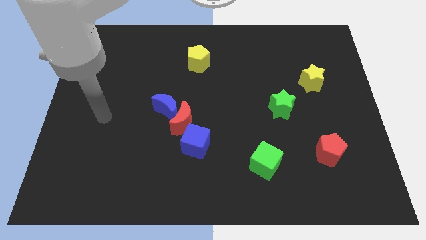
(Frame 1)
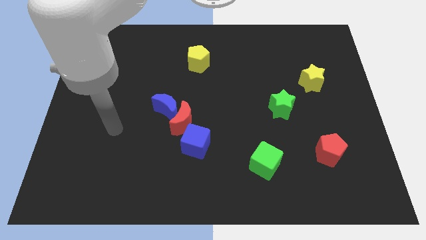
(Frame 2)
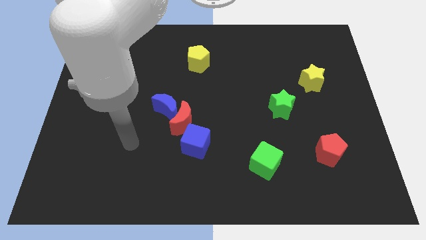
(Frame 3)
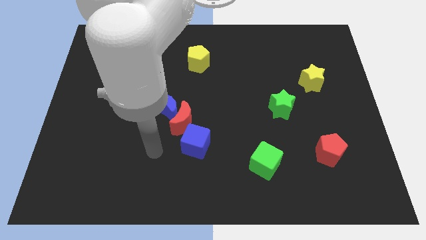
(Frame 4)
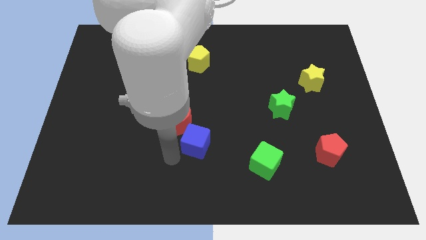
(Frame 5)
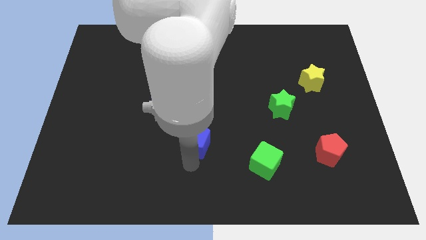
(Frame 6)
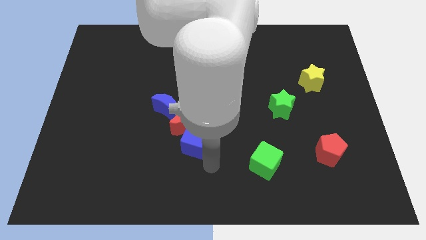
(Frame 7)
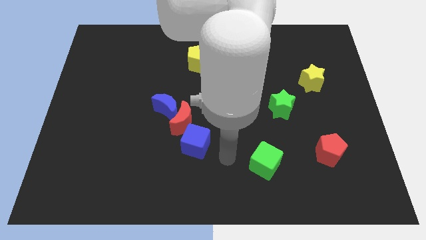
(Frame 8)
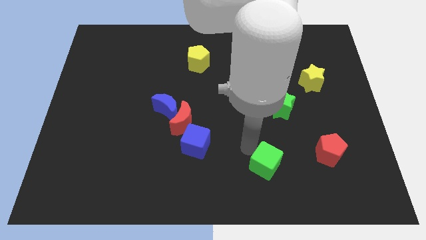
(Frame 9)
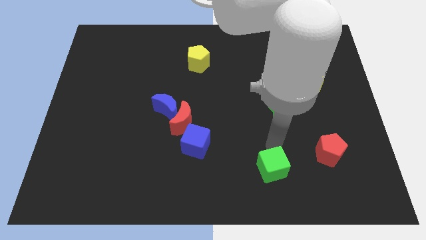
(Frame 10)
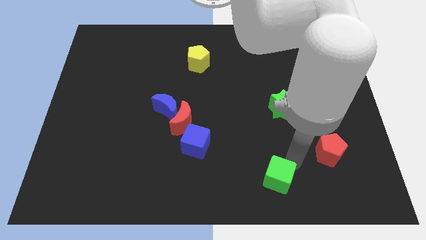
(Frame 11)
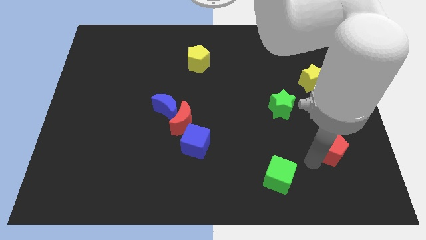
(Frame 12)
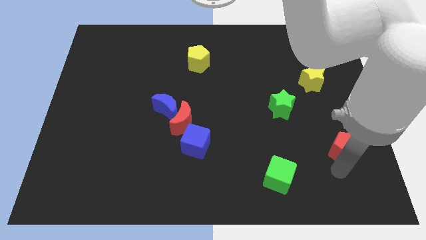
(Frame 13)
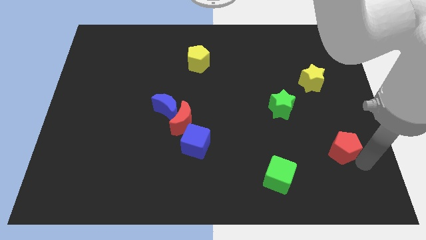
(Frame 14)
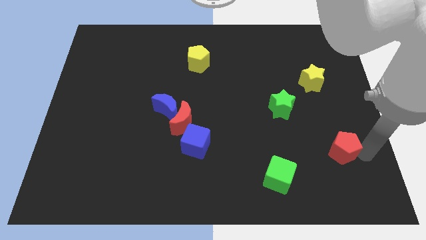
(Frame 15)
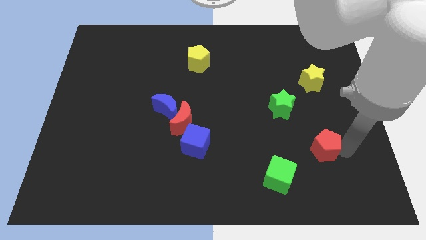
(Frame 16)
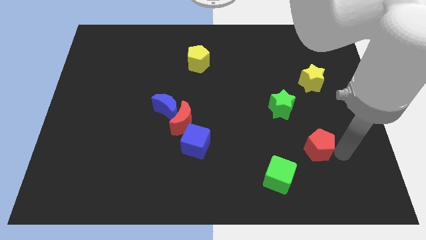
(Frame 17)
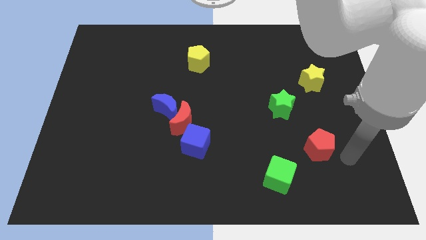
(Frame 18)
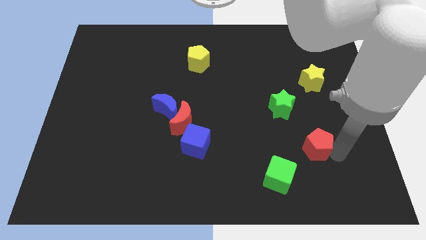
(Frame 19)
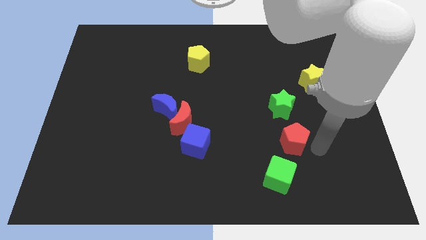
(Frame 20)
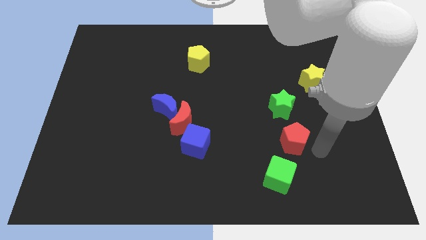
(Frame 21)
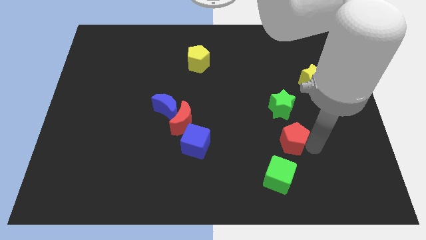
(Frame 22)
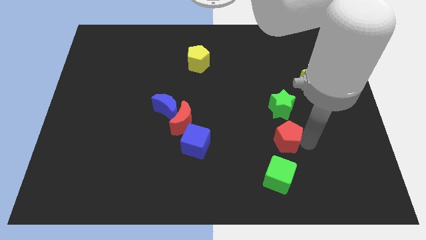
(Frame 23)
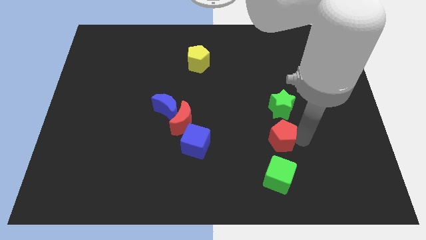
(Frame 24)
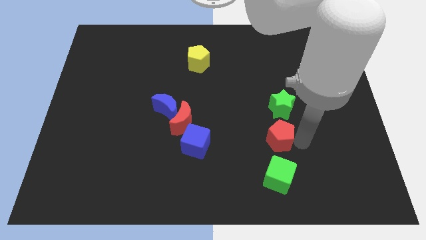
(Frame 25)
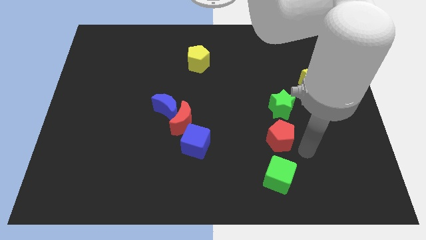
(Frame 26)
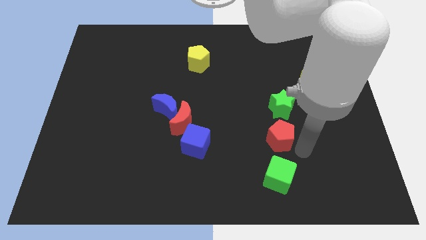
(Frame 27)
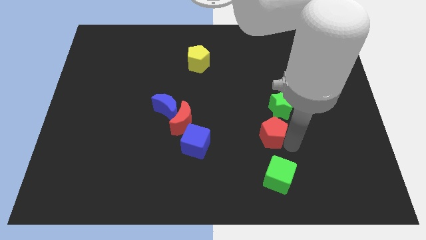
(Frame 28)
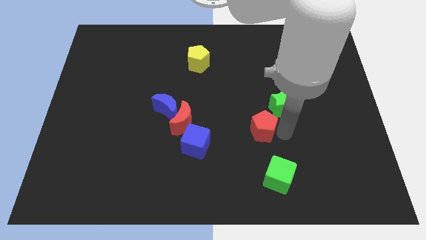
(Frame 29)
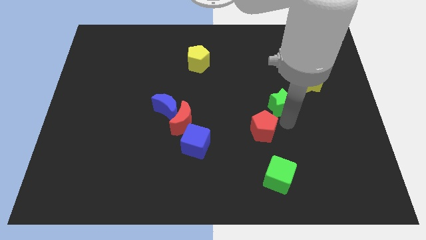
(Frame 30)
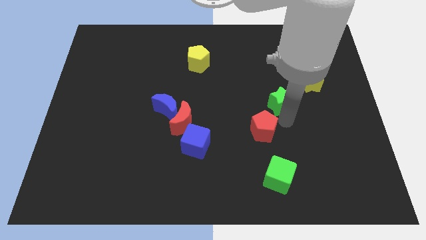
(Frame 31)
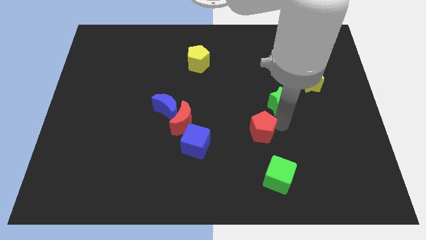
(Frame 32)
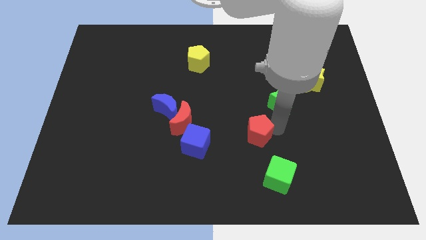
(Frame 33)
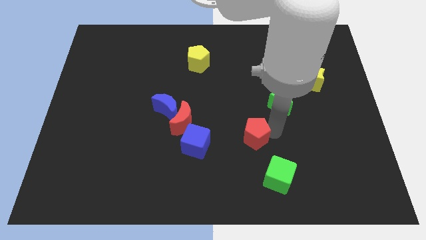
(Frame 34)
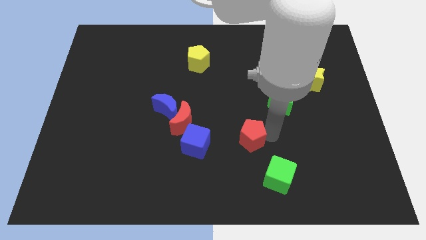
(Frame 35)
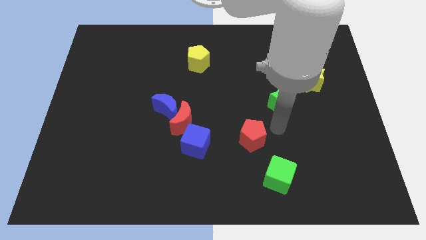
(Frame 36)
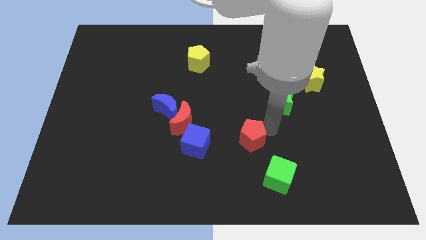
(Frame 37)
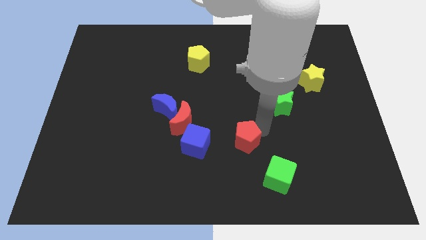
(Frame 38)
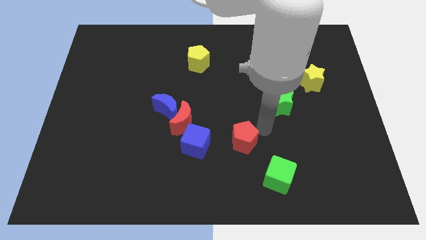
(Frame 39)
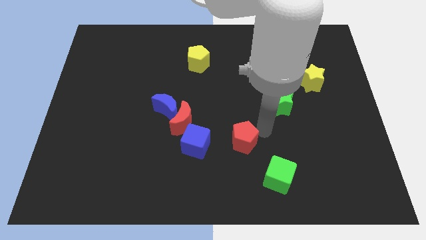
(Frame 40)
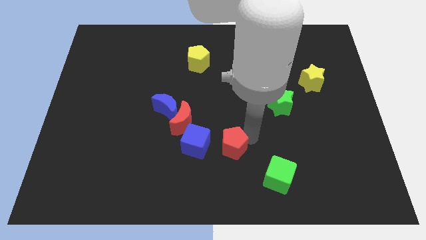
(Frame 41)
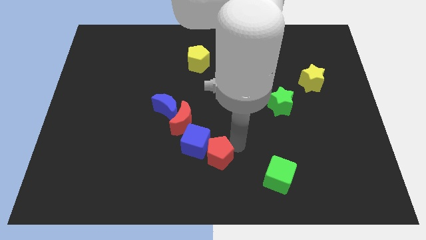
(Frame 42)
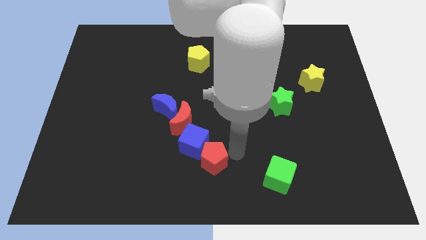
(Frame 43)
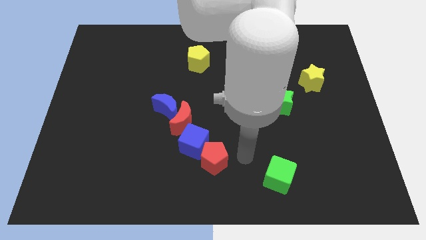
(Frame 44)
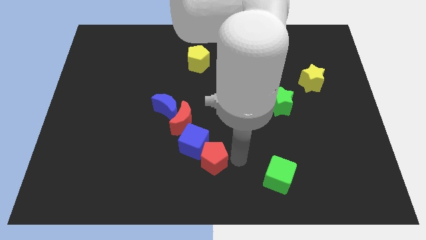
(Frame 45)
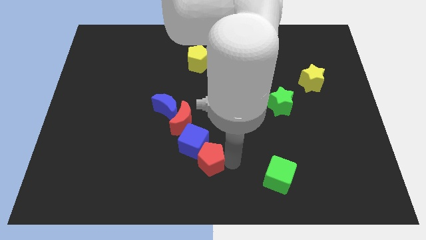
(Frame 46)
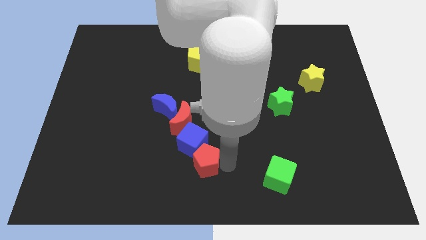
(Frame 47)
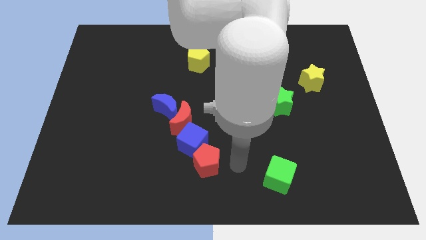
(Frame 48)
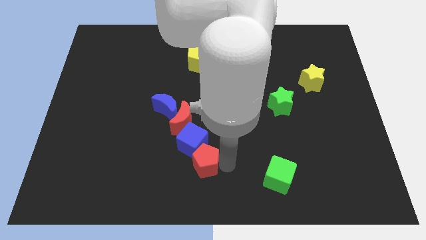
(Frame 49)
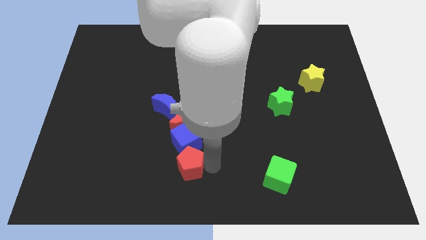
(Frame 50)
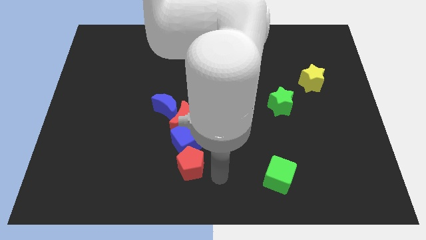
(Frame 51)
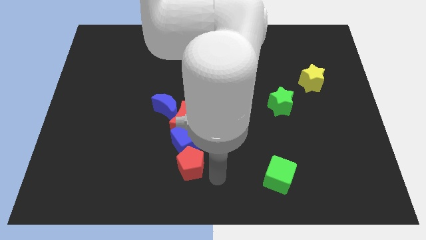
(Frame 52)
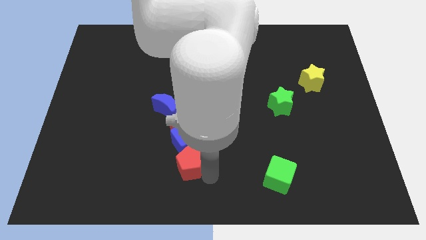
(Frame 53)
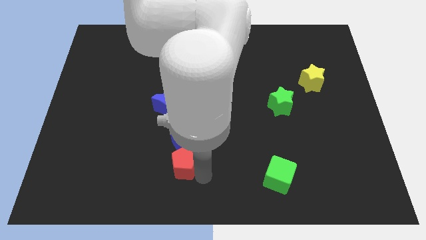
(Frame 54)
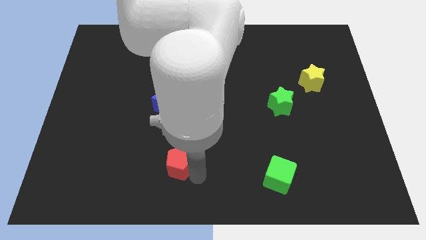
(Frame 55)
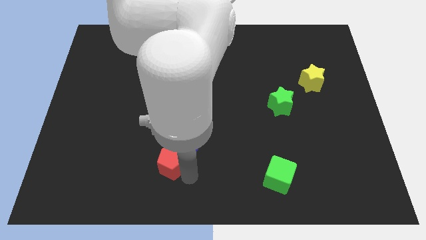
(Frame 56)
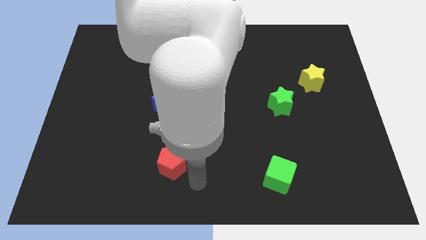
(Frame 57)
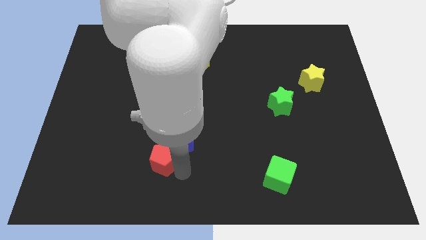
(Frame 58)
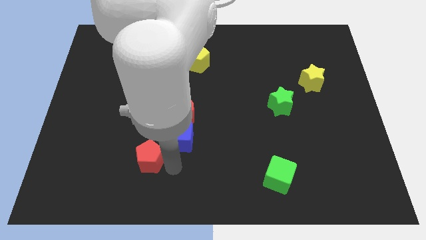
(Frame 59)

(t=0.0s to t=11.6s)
move the red pentagon left of the blue cube

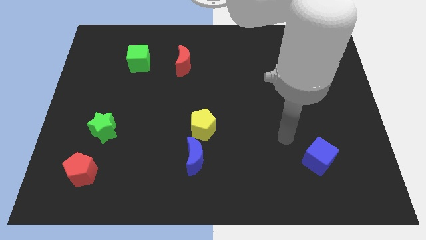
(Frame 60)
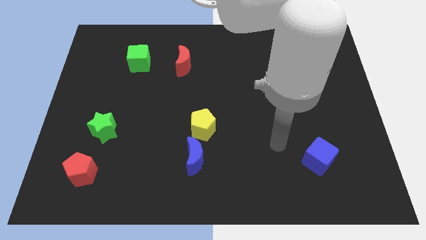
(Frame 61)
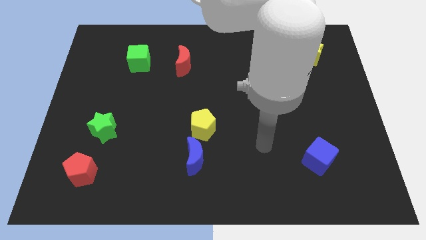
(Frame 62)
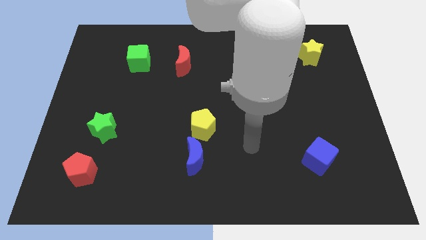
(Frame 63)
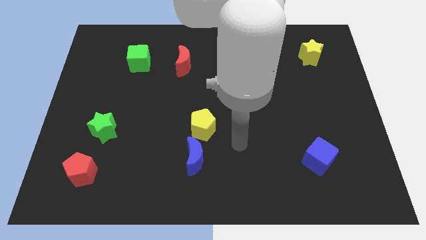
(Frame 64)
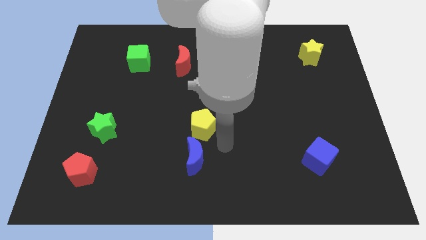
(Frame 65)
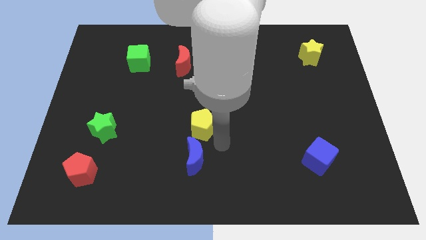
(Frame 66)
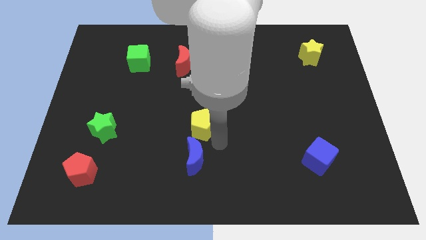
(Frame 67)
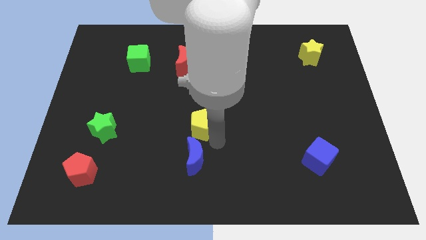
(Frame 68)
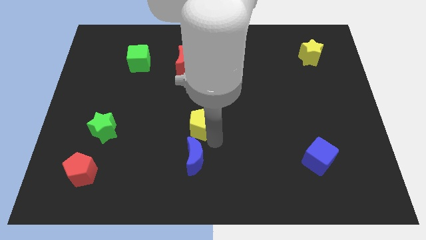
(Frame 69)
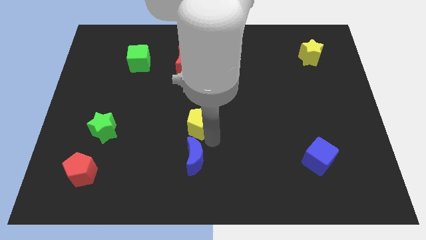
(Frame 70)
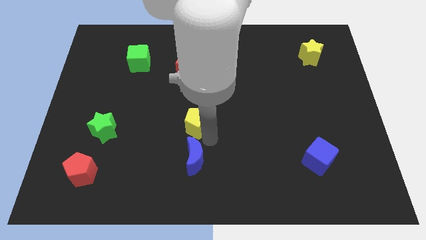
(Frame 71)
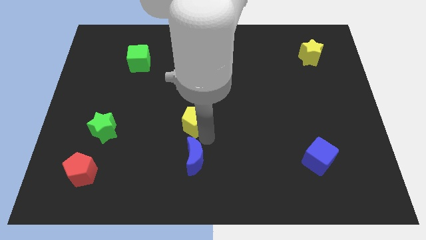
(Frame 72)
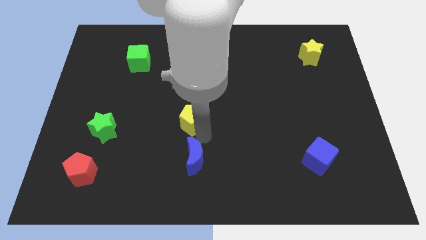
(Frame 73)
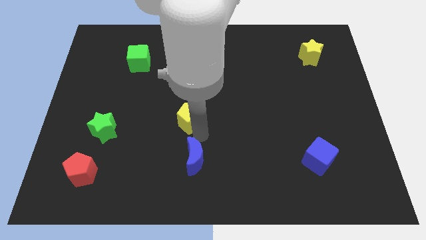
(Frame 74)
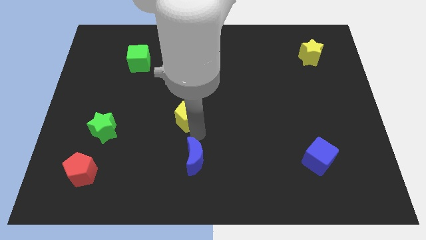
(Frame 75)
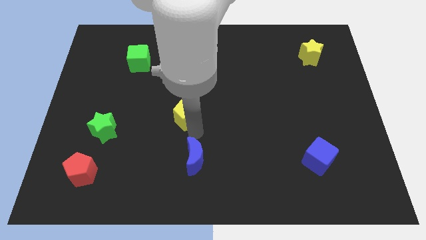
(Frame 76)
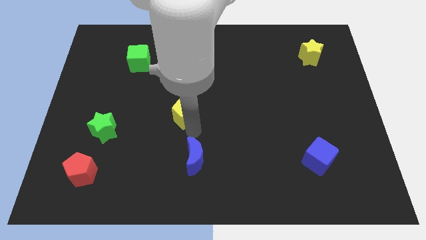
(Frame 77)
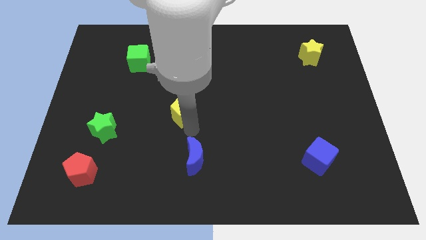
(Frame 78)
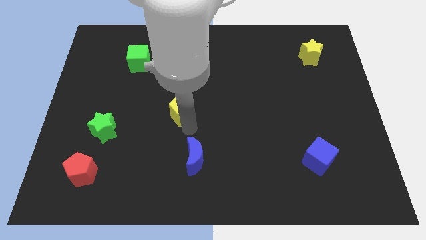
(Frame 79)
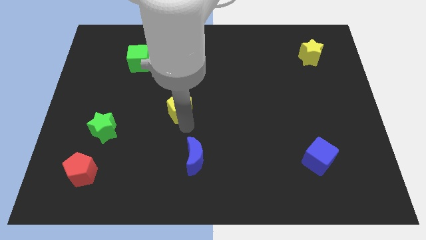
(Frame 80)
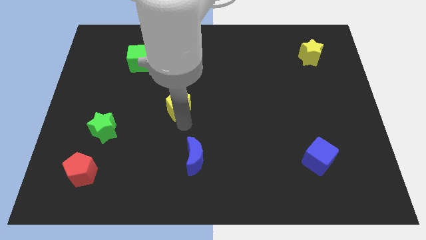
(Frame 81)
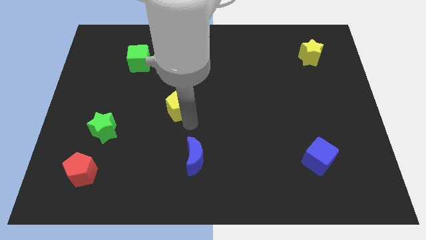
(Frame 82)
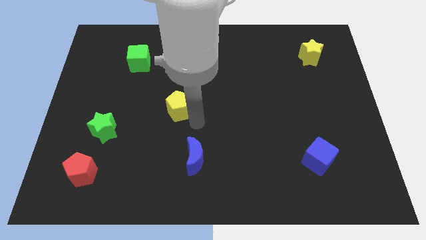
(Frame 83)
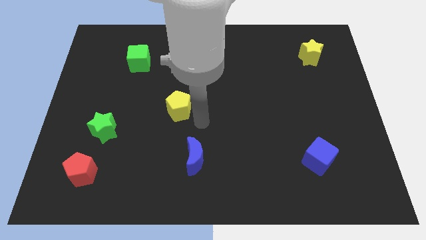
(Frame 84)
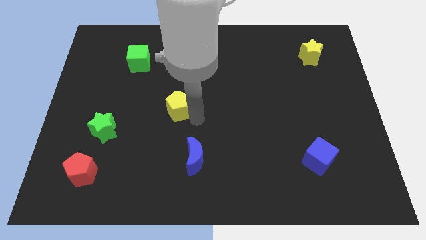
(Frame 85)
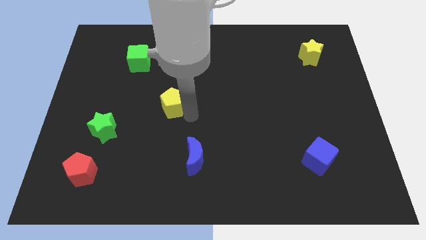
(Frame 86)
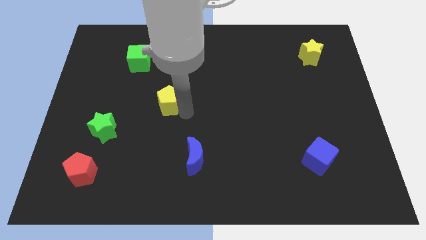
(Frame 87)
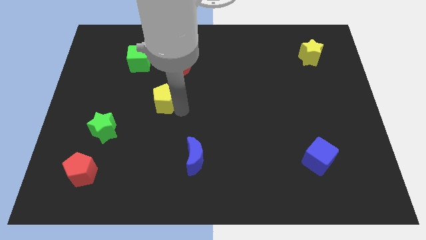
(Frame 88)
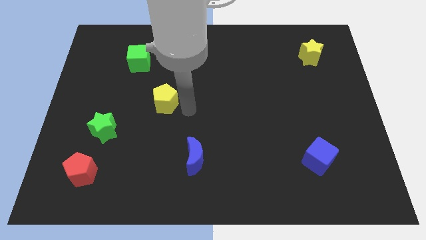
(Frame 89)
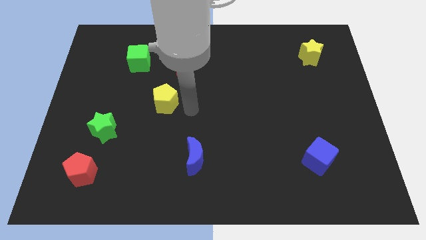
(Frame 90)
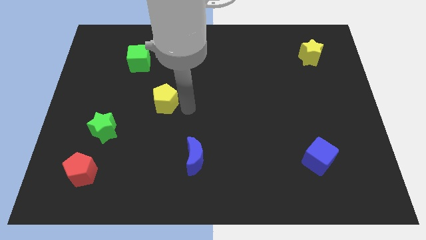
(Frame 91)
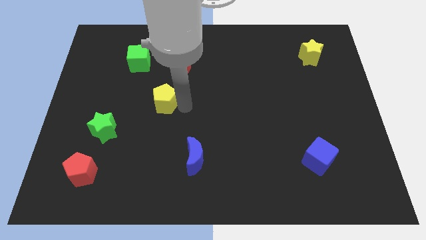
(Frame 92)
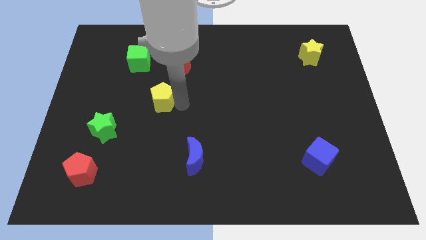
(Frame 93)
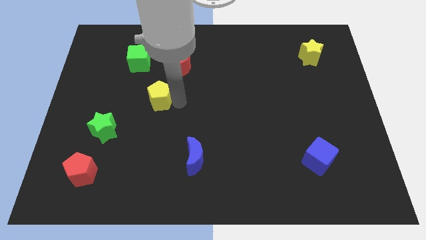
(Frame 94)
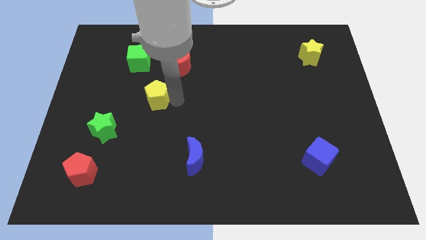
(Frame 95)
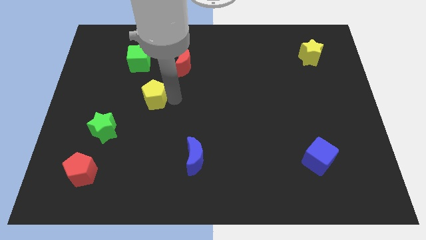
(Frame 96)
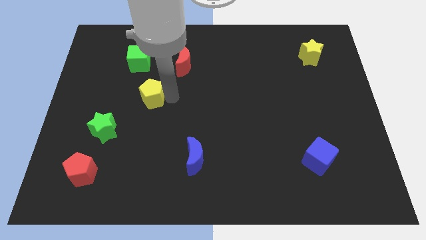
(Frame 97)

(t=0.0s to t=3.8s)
move the yellow pentagon to the bottom of the green cube
